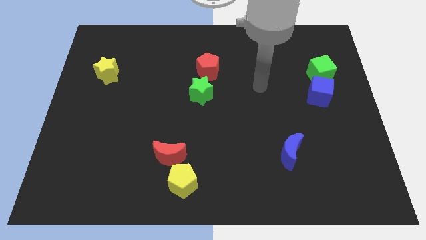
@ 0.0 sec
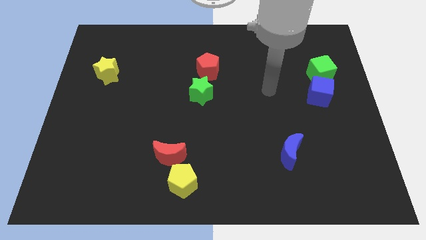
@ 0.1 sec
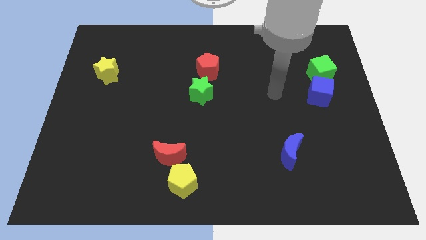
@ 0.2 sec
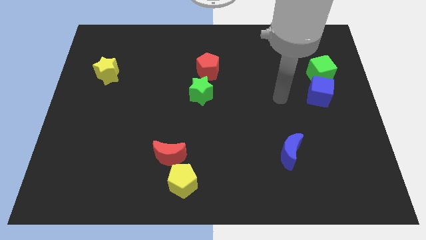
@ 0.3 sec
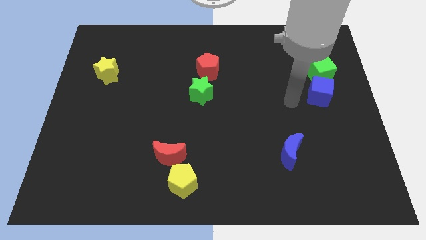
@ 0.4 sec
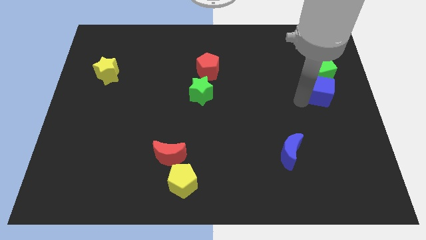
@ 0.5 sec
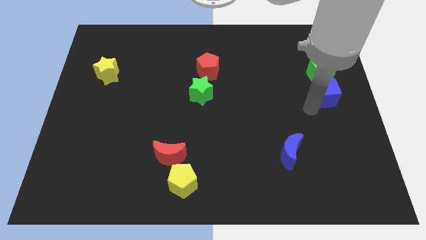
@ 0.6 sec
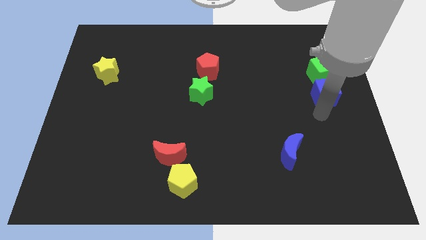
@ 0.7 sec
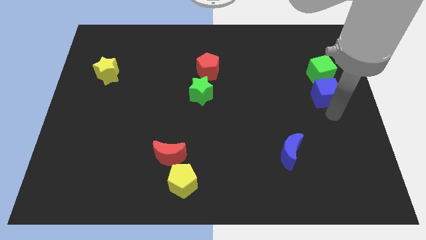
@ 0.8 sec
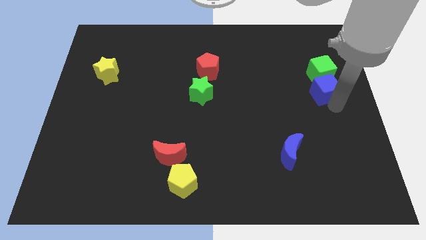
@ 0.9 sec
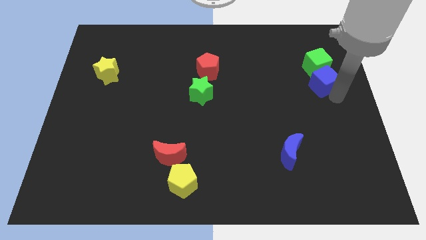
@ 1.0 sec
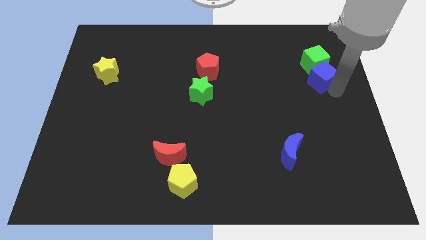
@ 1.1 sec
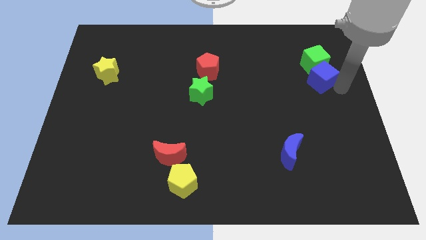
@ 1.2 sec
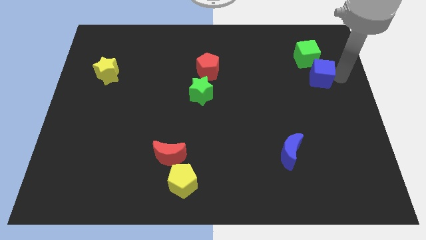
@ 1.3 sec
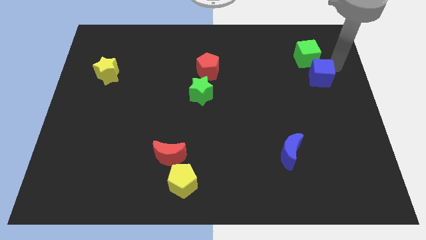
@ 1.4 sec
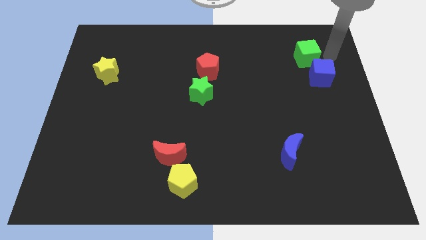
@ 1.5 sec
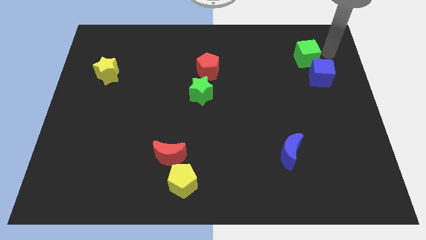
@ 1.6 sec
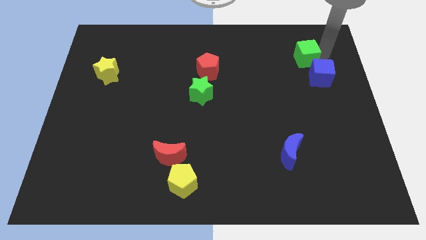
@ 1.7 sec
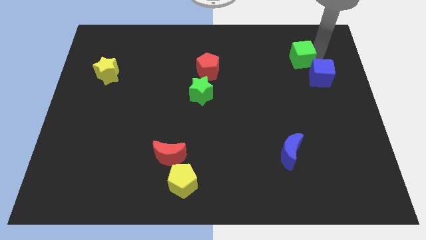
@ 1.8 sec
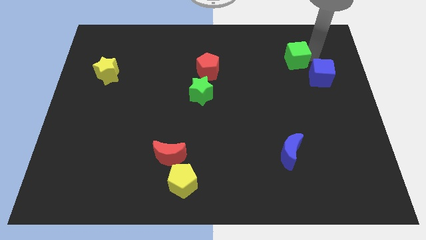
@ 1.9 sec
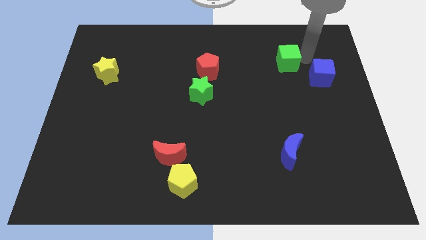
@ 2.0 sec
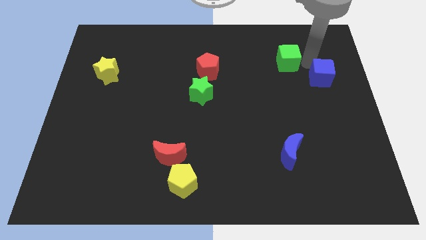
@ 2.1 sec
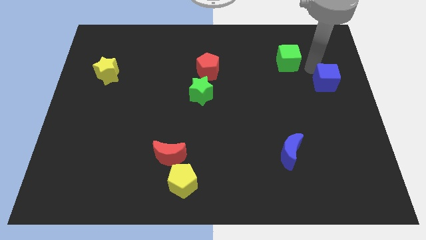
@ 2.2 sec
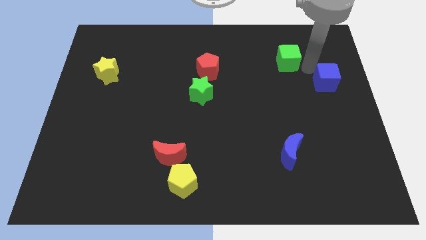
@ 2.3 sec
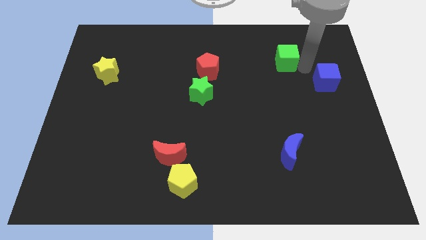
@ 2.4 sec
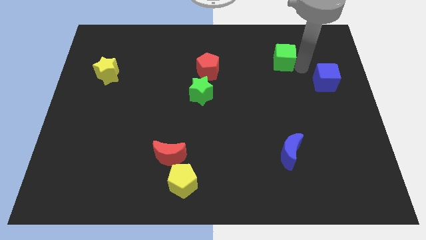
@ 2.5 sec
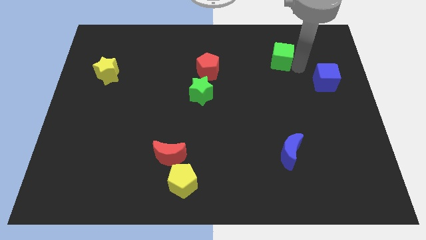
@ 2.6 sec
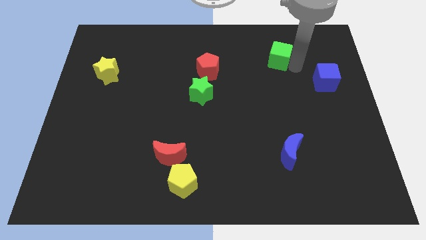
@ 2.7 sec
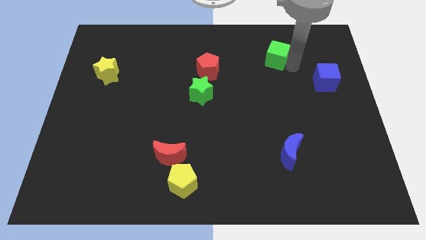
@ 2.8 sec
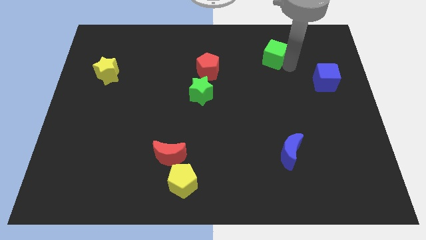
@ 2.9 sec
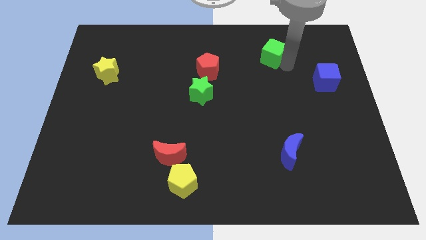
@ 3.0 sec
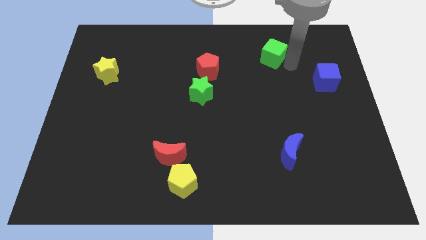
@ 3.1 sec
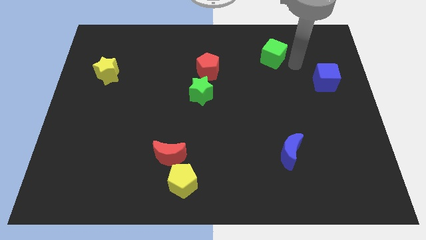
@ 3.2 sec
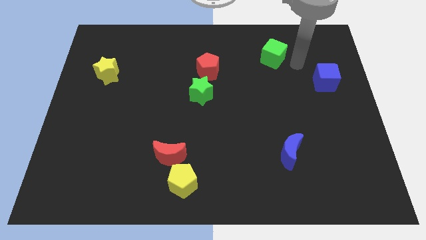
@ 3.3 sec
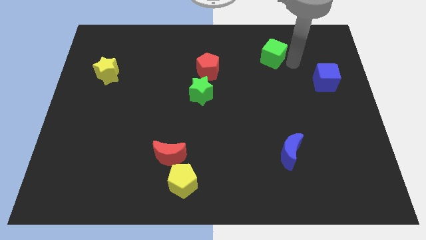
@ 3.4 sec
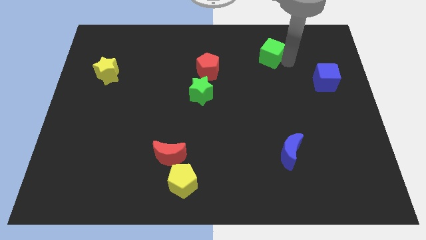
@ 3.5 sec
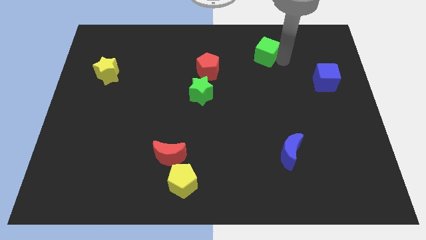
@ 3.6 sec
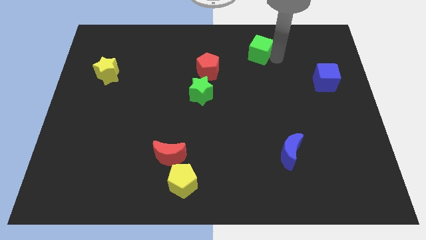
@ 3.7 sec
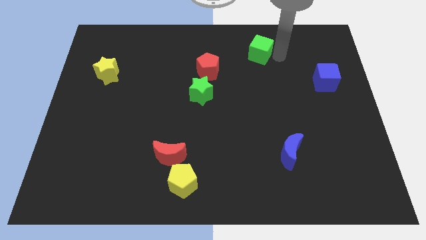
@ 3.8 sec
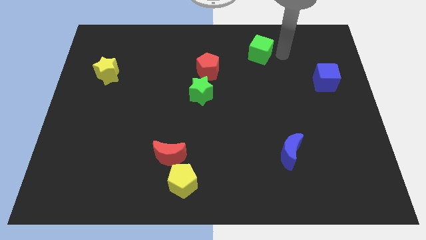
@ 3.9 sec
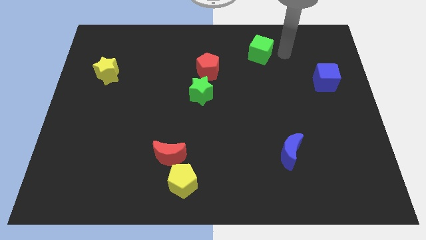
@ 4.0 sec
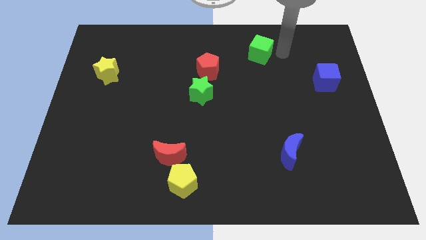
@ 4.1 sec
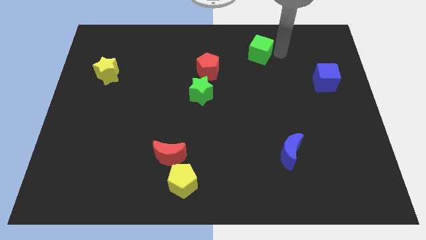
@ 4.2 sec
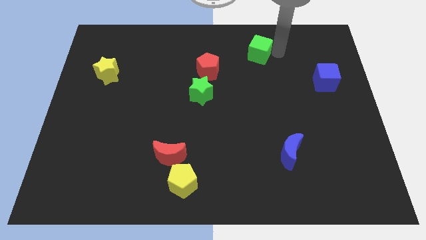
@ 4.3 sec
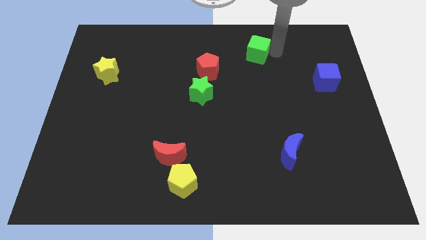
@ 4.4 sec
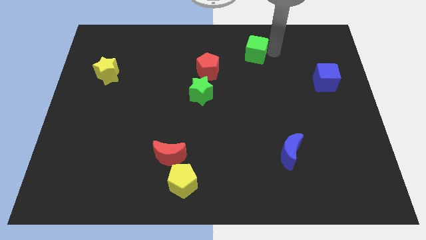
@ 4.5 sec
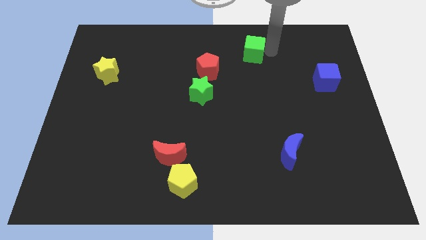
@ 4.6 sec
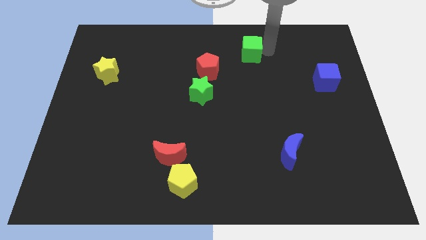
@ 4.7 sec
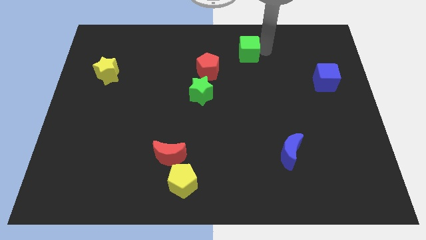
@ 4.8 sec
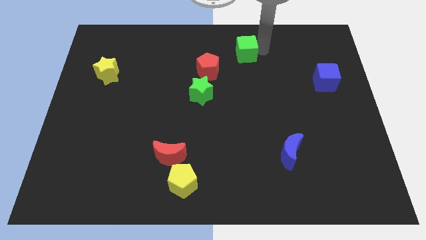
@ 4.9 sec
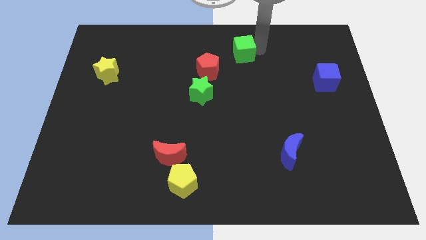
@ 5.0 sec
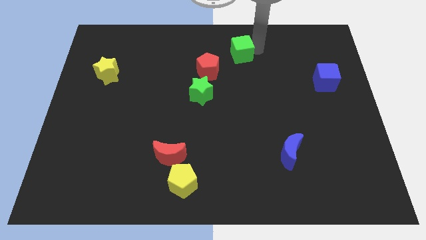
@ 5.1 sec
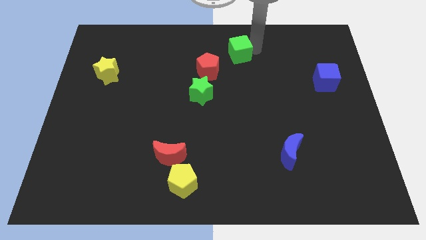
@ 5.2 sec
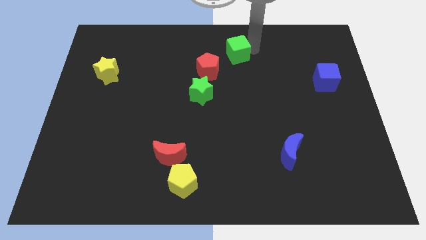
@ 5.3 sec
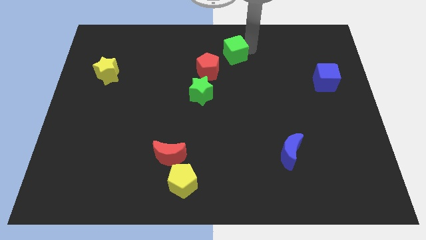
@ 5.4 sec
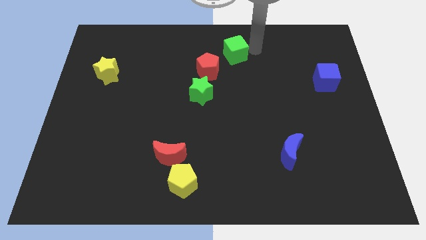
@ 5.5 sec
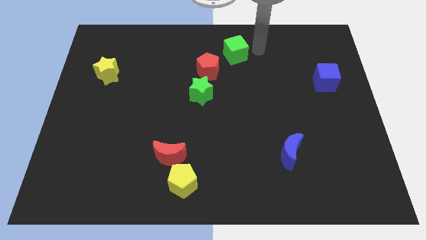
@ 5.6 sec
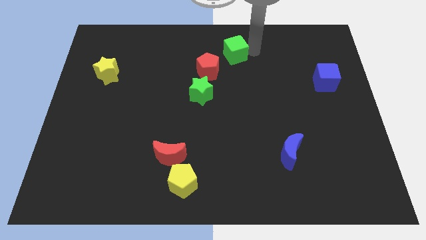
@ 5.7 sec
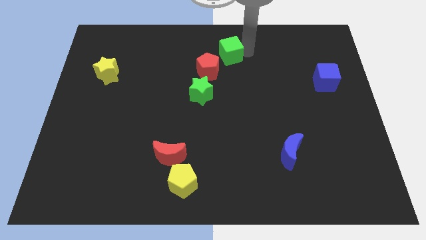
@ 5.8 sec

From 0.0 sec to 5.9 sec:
move the green cube left

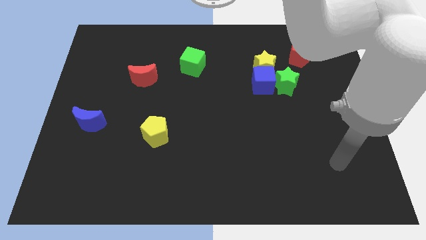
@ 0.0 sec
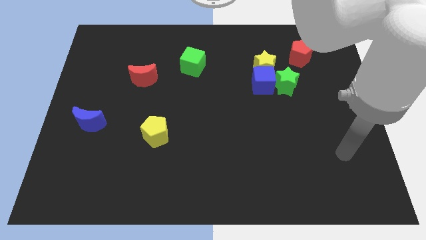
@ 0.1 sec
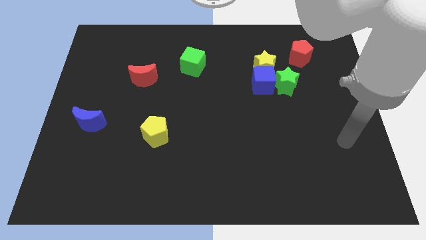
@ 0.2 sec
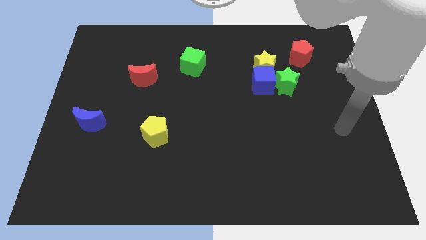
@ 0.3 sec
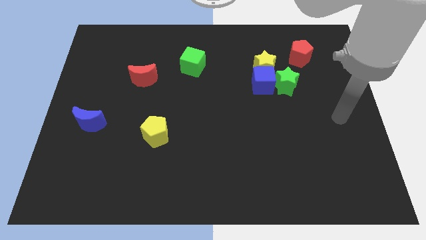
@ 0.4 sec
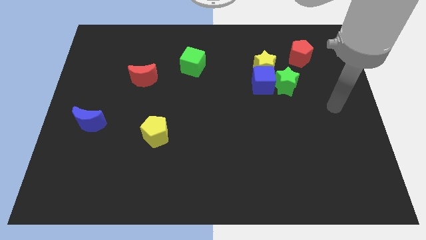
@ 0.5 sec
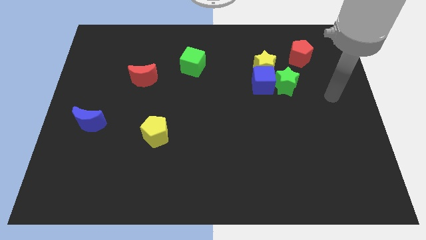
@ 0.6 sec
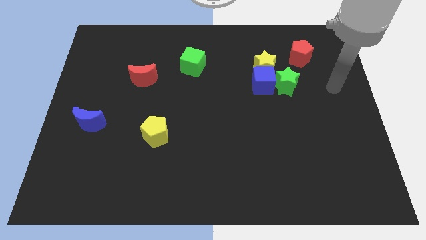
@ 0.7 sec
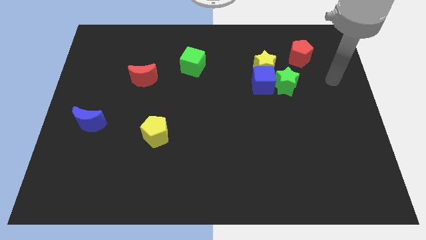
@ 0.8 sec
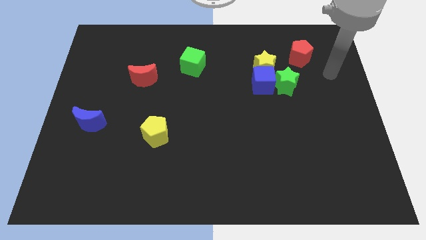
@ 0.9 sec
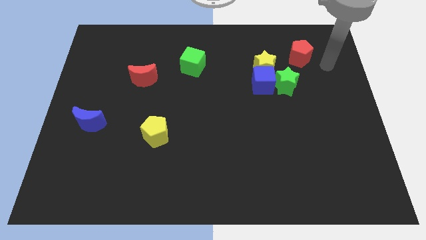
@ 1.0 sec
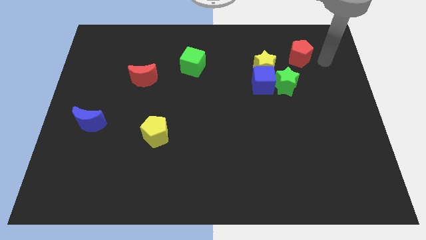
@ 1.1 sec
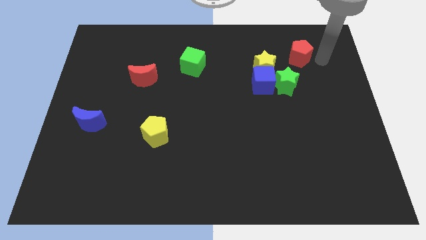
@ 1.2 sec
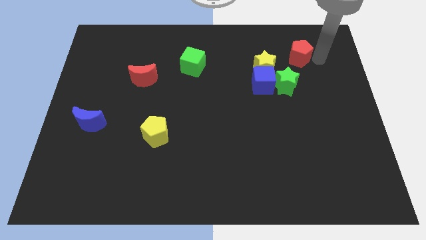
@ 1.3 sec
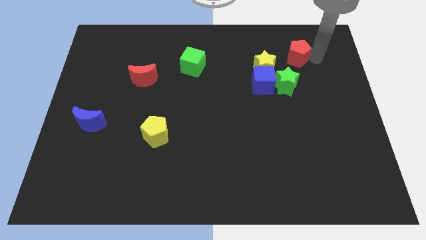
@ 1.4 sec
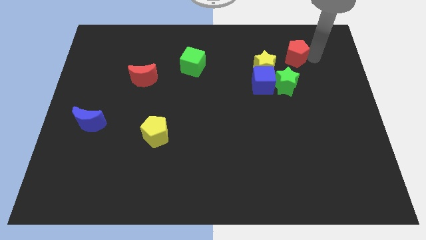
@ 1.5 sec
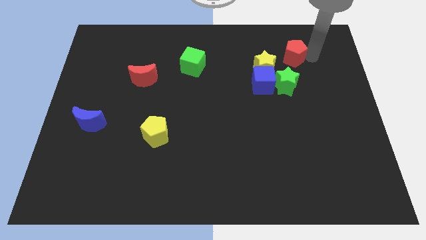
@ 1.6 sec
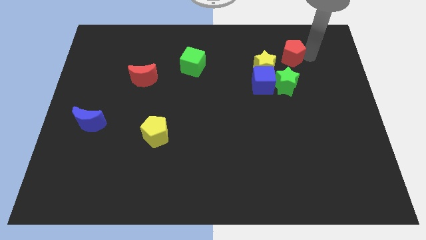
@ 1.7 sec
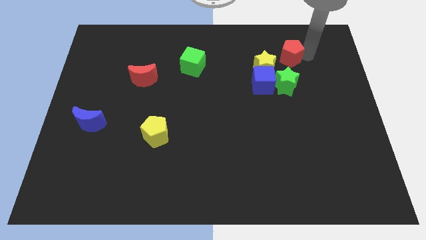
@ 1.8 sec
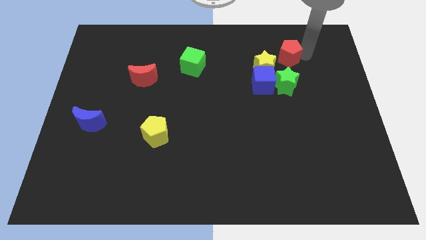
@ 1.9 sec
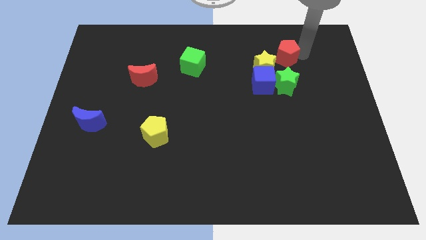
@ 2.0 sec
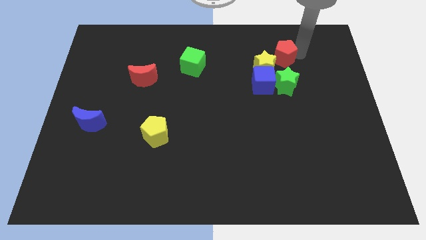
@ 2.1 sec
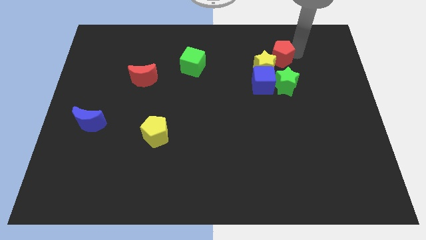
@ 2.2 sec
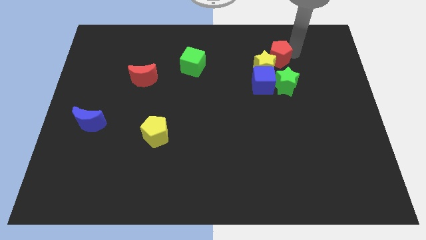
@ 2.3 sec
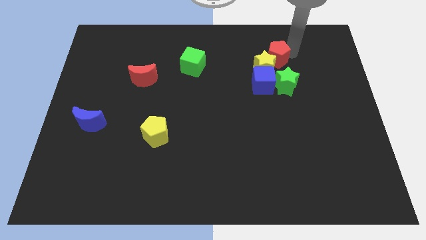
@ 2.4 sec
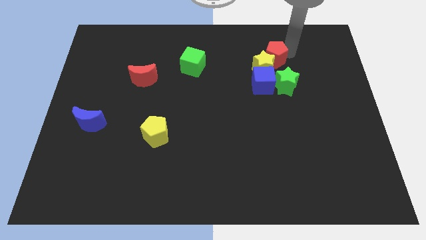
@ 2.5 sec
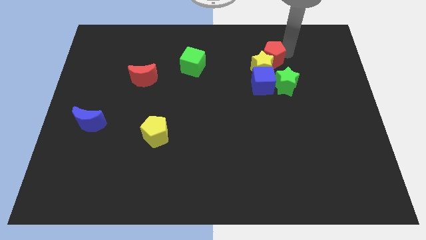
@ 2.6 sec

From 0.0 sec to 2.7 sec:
move the red pentagon left a bit
